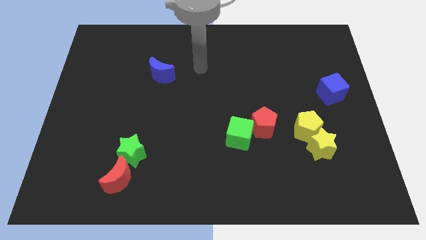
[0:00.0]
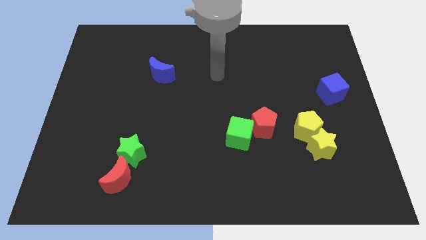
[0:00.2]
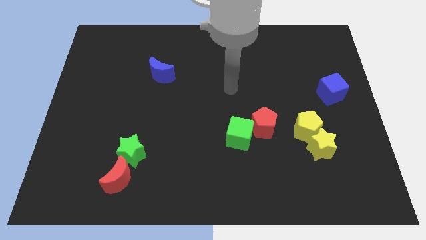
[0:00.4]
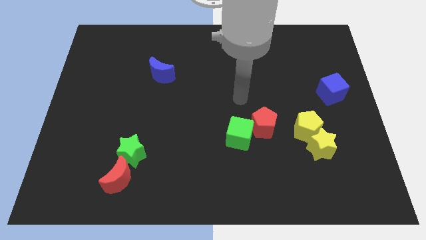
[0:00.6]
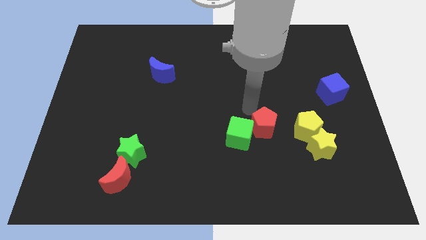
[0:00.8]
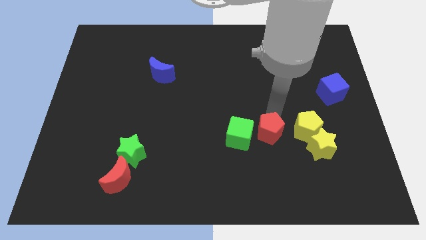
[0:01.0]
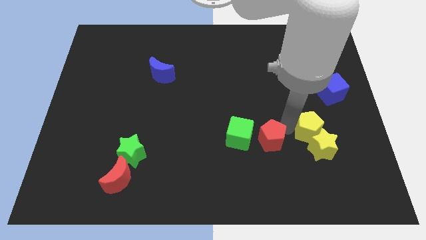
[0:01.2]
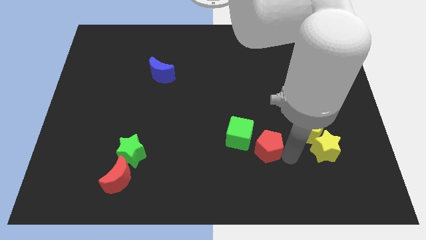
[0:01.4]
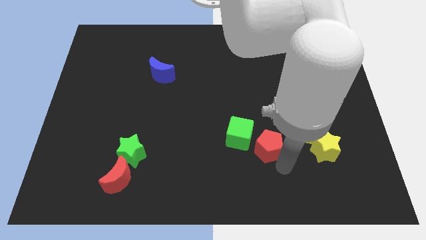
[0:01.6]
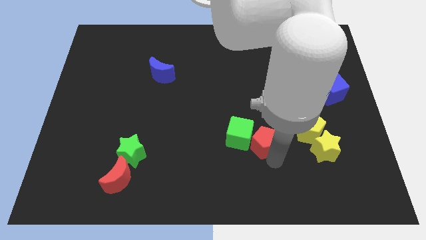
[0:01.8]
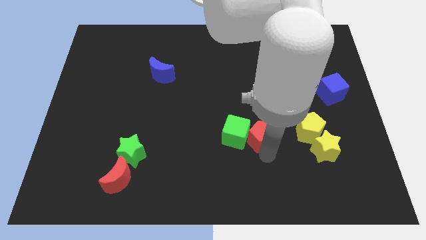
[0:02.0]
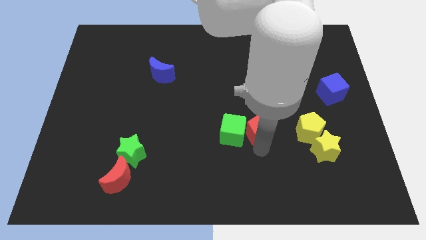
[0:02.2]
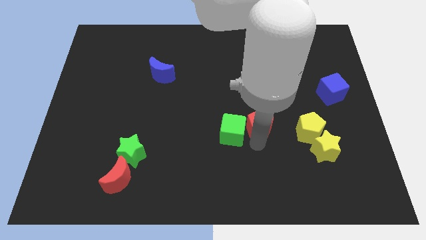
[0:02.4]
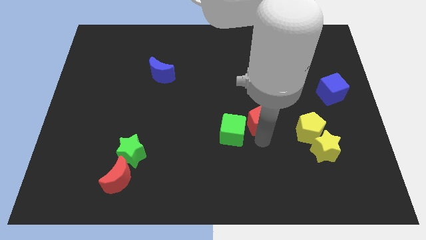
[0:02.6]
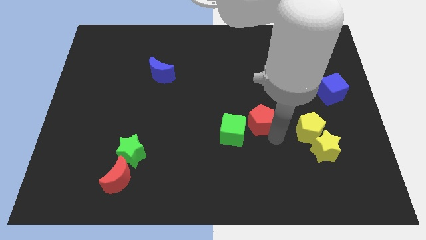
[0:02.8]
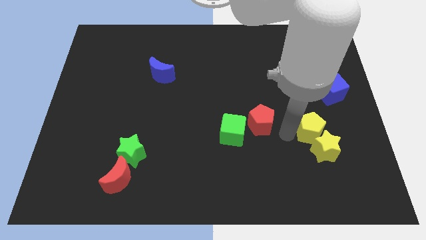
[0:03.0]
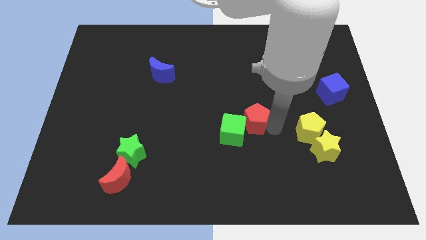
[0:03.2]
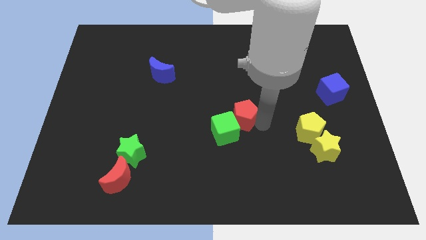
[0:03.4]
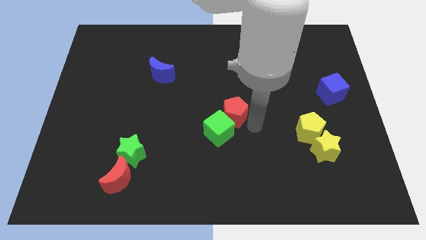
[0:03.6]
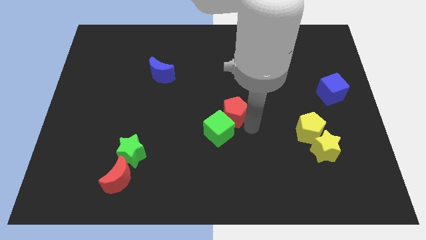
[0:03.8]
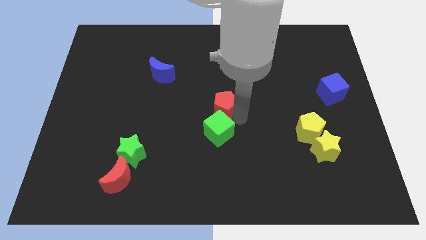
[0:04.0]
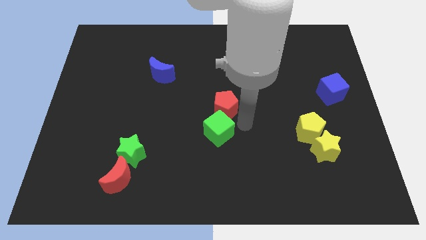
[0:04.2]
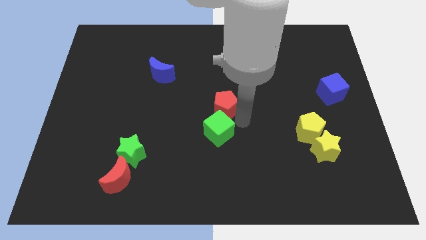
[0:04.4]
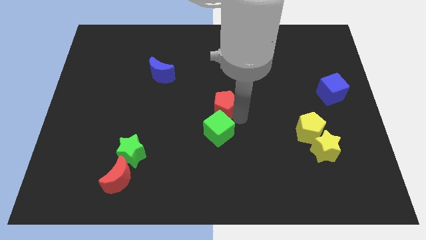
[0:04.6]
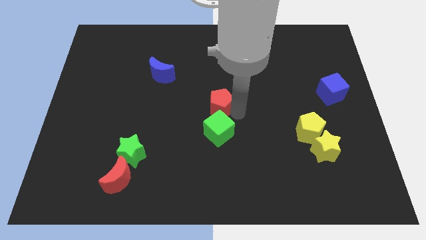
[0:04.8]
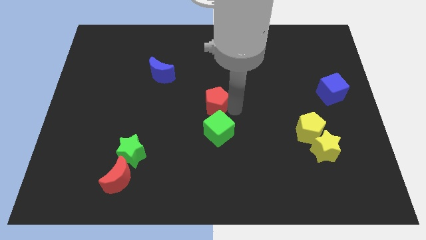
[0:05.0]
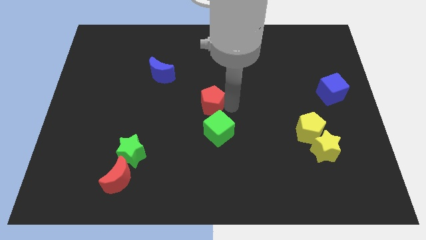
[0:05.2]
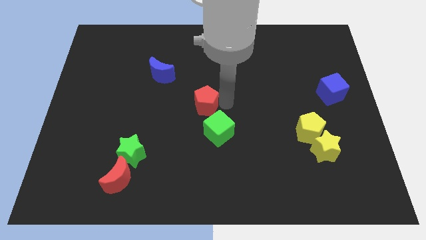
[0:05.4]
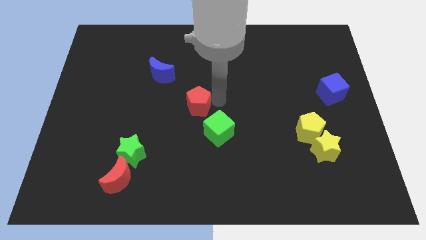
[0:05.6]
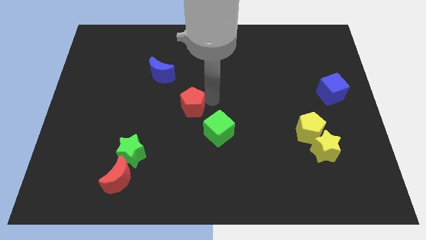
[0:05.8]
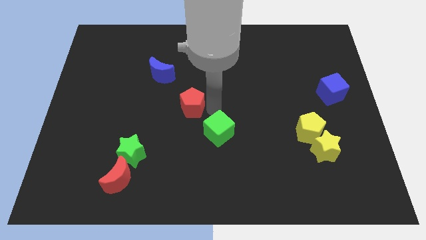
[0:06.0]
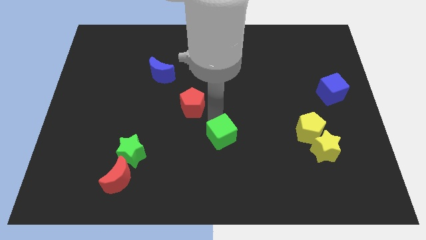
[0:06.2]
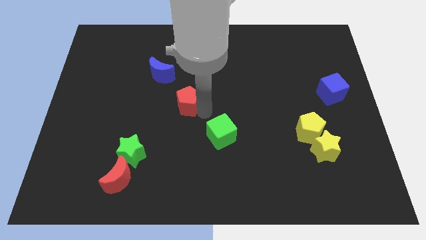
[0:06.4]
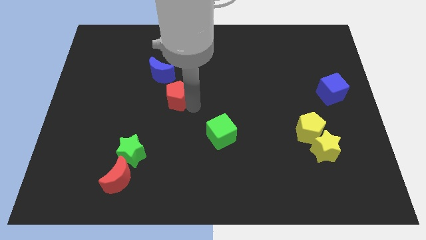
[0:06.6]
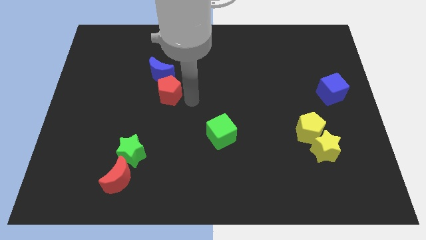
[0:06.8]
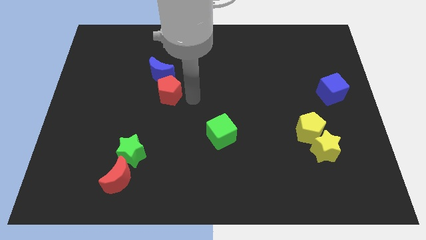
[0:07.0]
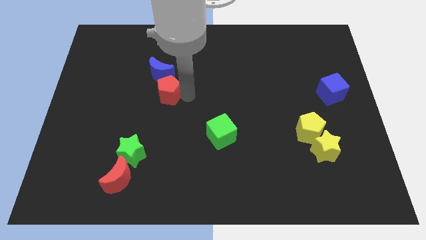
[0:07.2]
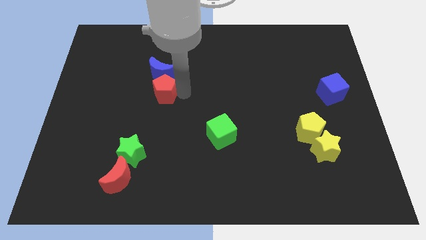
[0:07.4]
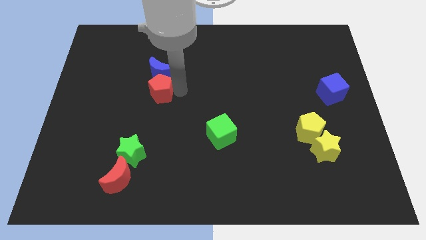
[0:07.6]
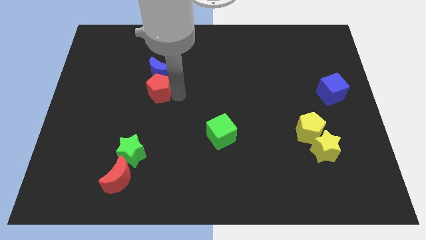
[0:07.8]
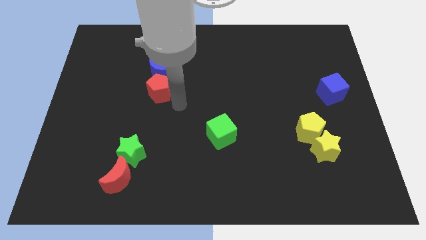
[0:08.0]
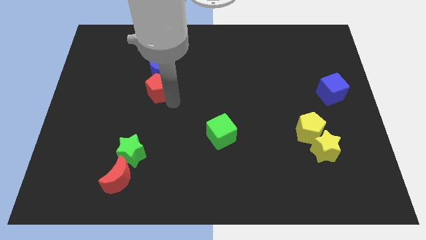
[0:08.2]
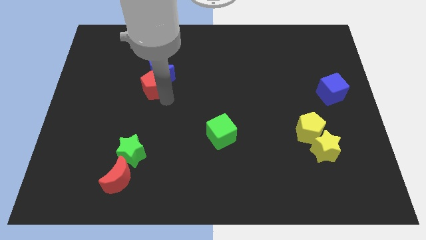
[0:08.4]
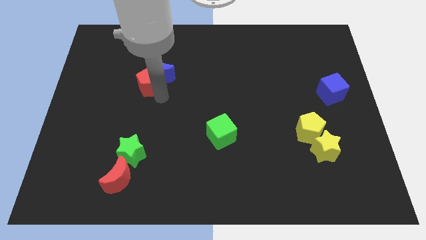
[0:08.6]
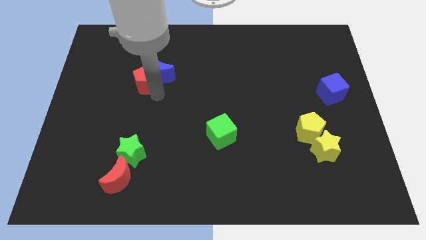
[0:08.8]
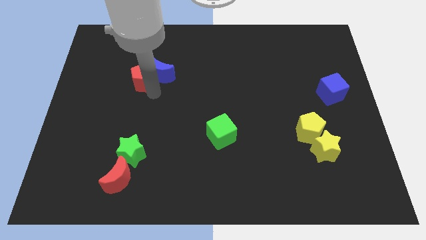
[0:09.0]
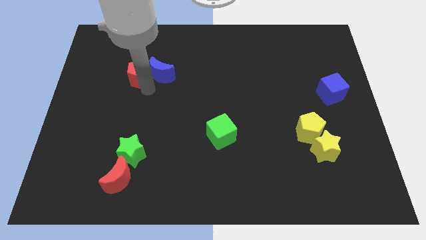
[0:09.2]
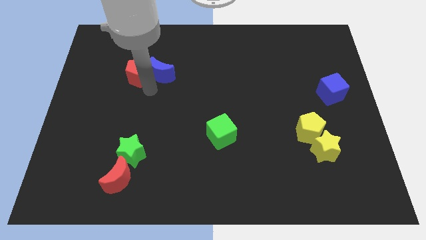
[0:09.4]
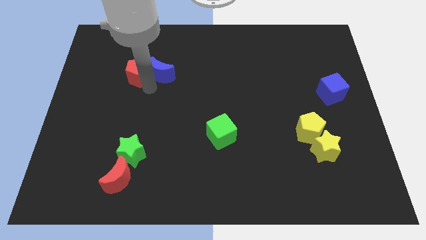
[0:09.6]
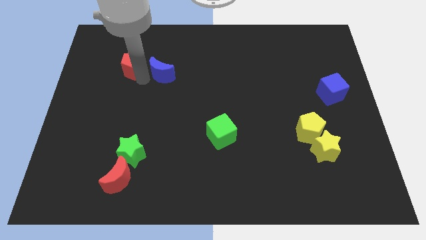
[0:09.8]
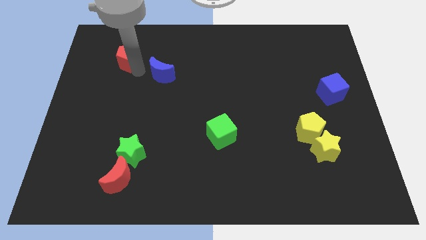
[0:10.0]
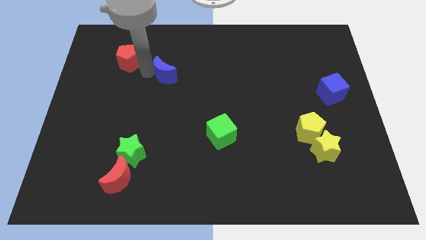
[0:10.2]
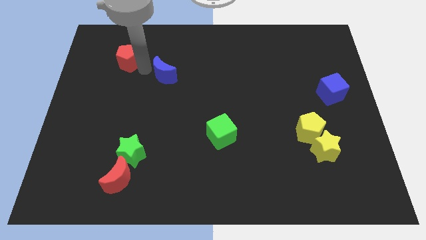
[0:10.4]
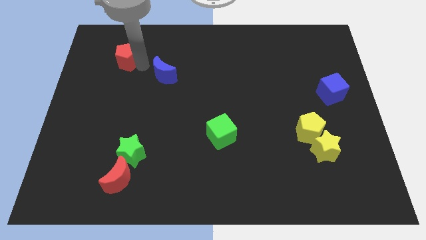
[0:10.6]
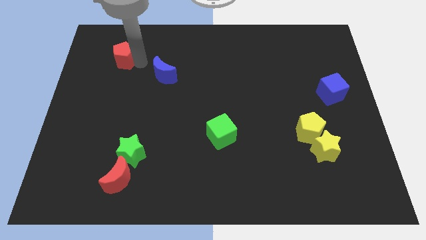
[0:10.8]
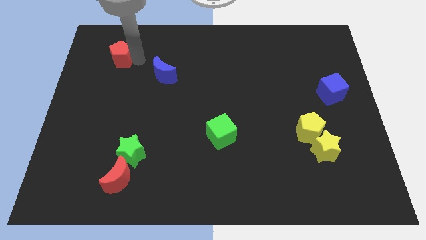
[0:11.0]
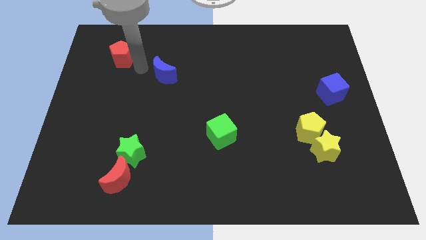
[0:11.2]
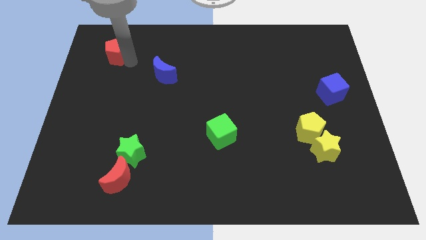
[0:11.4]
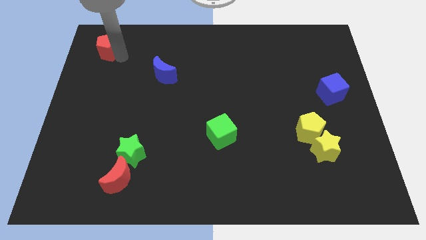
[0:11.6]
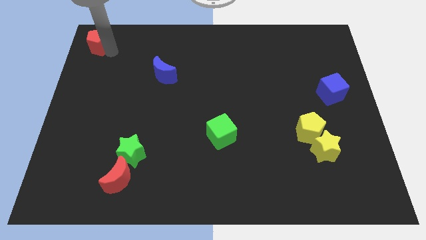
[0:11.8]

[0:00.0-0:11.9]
slide the red pentagon to the top left corner
